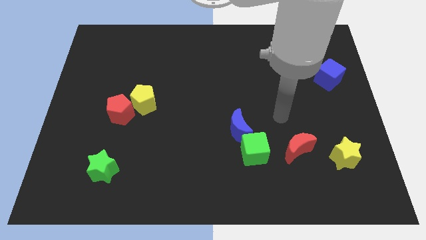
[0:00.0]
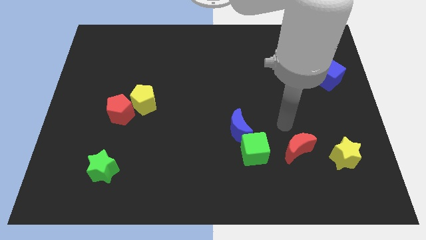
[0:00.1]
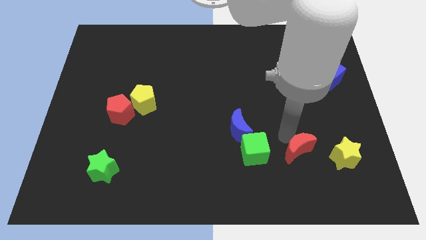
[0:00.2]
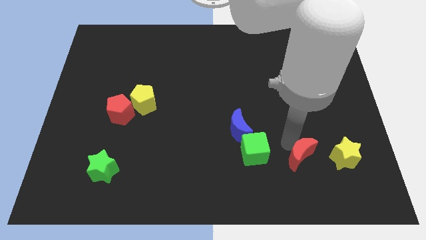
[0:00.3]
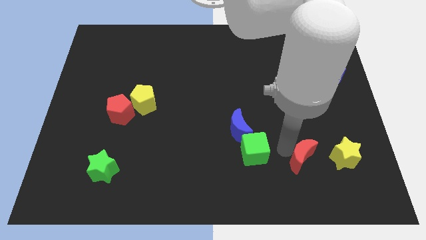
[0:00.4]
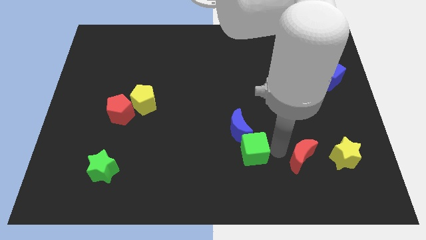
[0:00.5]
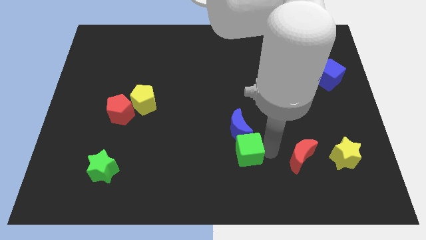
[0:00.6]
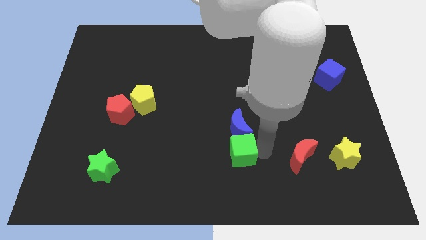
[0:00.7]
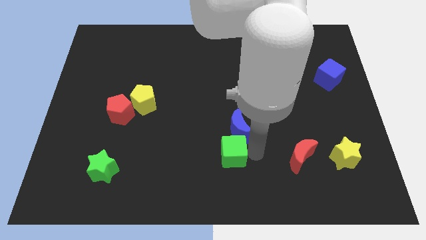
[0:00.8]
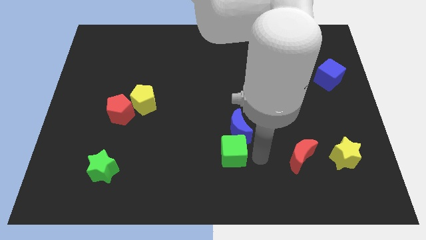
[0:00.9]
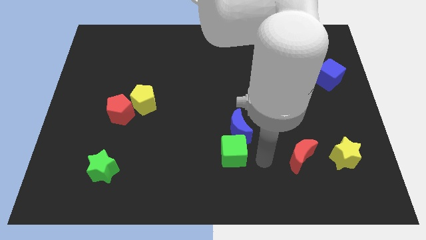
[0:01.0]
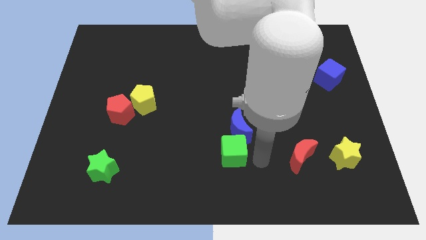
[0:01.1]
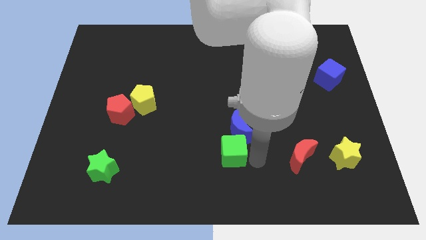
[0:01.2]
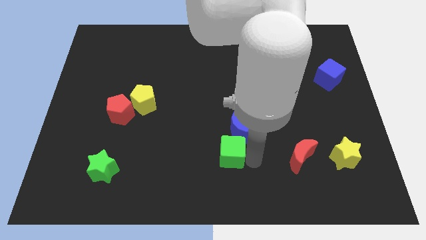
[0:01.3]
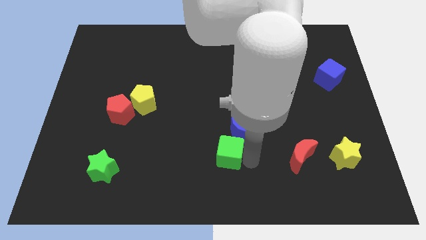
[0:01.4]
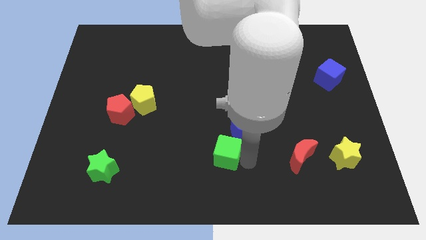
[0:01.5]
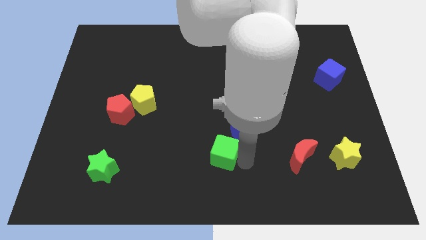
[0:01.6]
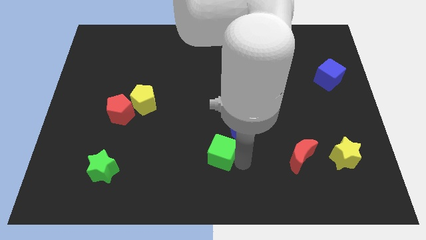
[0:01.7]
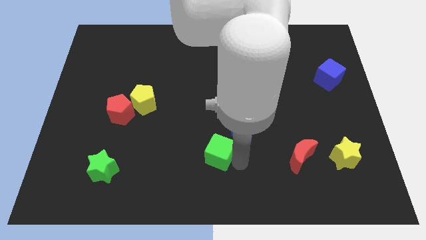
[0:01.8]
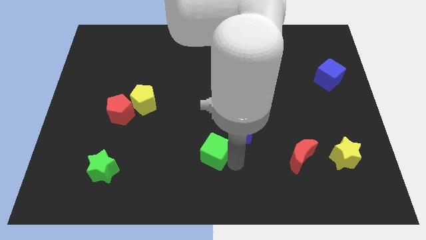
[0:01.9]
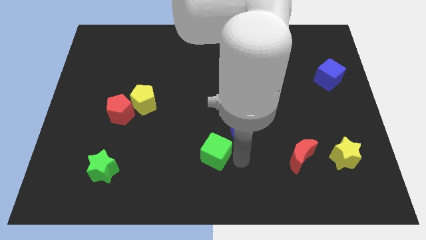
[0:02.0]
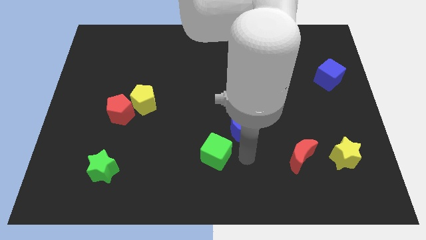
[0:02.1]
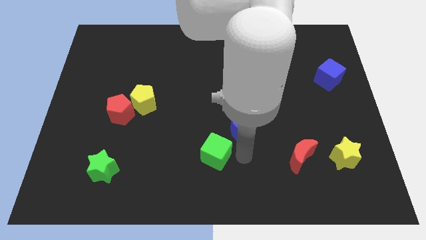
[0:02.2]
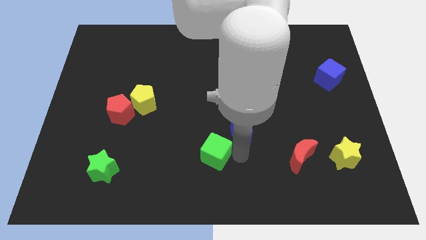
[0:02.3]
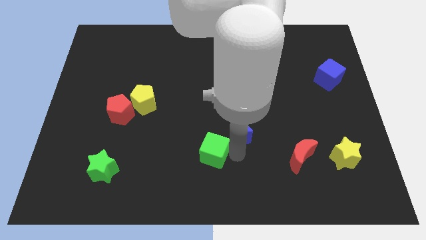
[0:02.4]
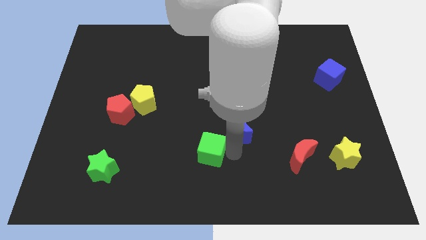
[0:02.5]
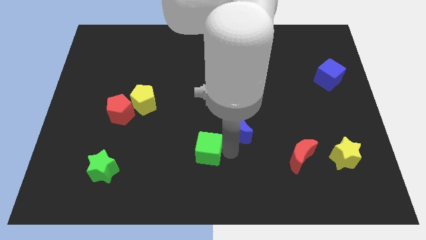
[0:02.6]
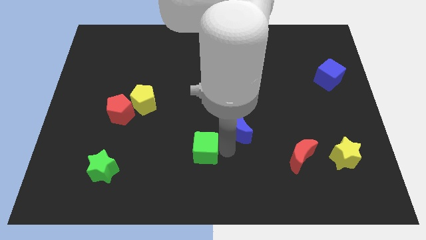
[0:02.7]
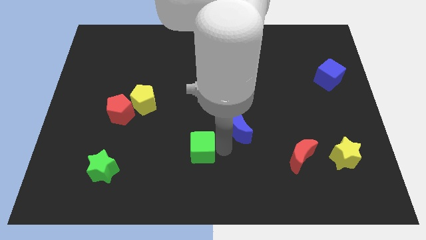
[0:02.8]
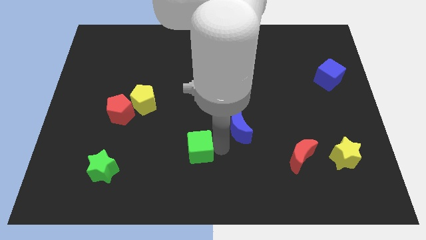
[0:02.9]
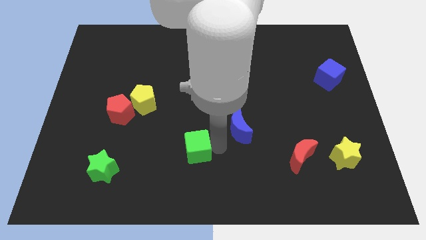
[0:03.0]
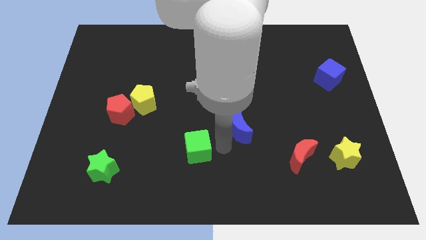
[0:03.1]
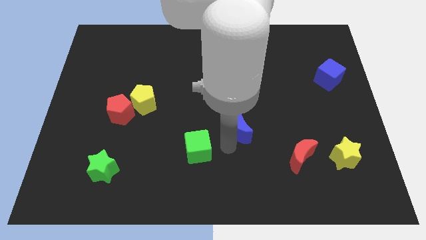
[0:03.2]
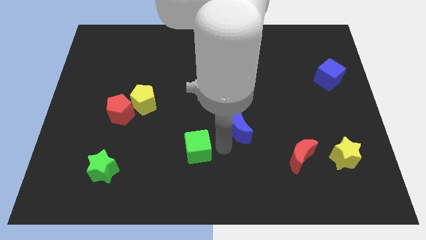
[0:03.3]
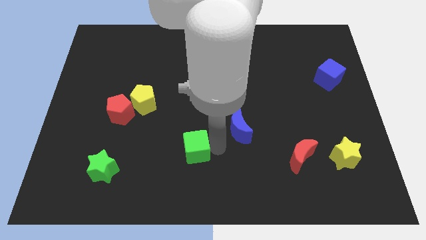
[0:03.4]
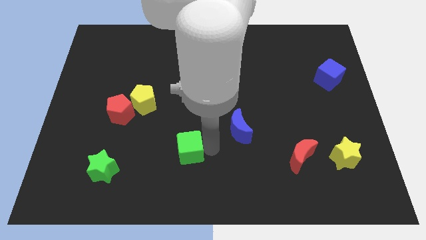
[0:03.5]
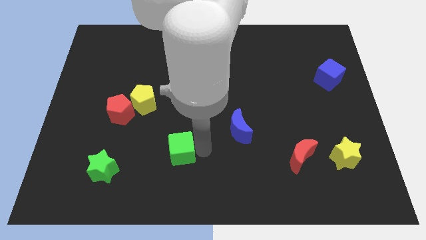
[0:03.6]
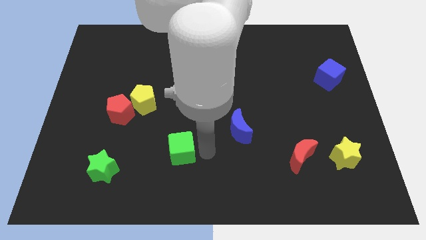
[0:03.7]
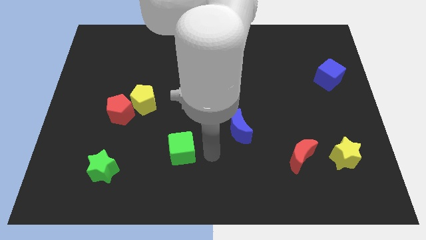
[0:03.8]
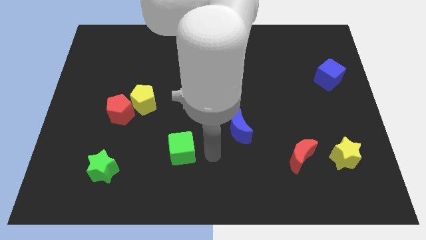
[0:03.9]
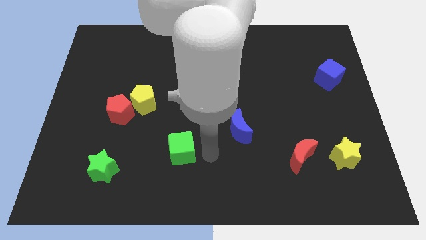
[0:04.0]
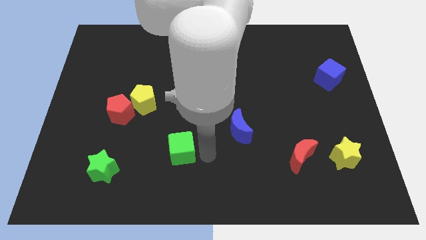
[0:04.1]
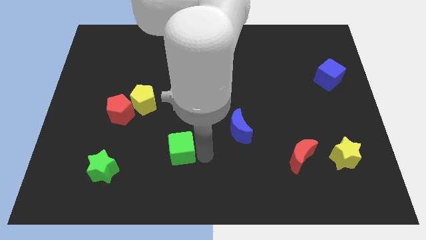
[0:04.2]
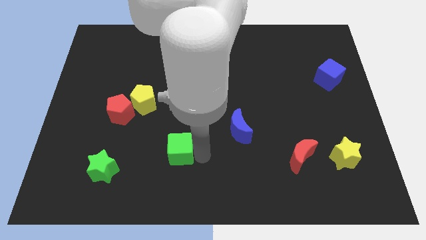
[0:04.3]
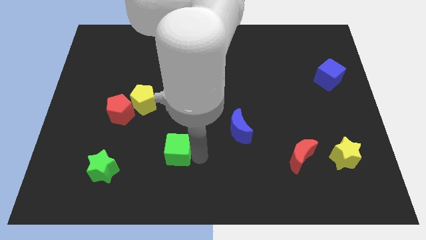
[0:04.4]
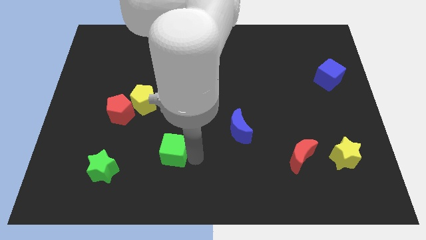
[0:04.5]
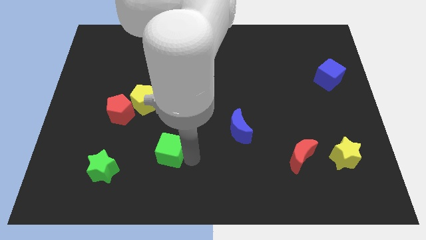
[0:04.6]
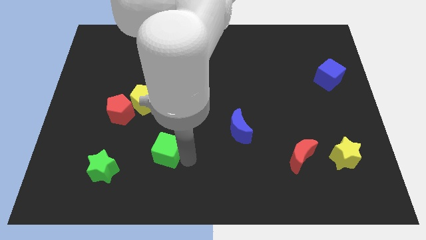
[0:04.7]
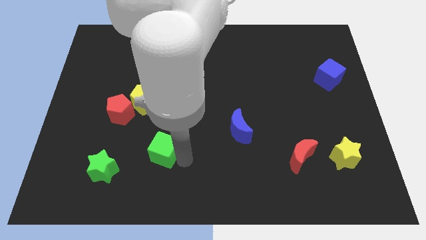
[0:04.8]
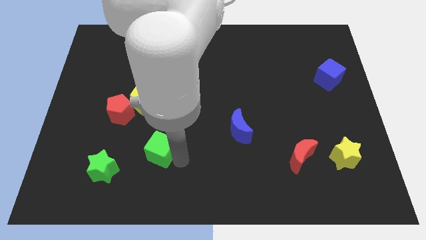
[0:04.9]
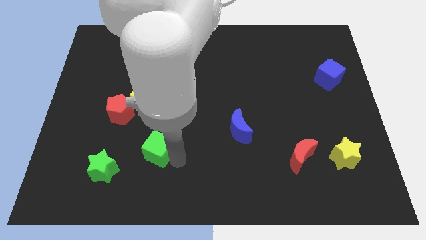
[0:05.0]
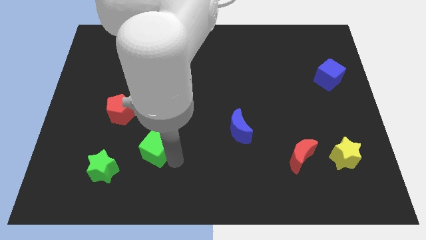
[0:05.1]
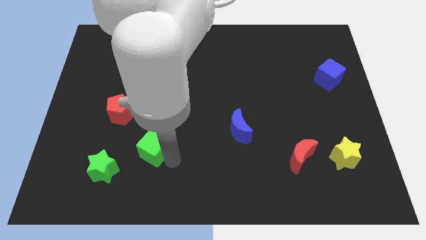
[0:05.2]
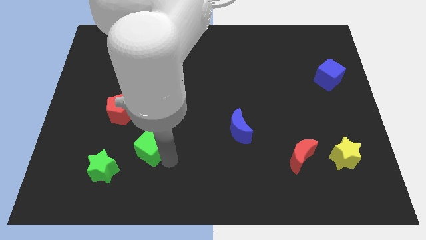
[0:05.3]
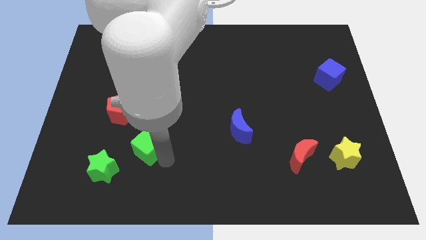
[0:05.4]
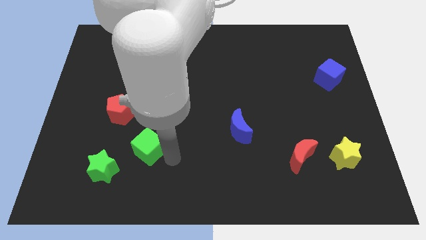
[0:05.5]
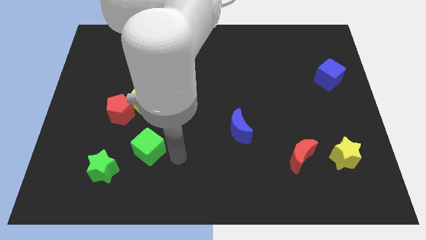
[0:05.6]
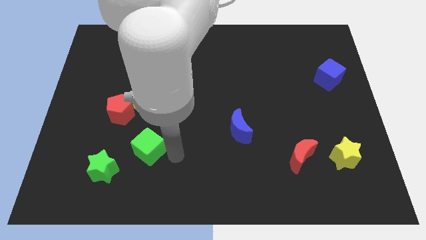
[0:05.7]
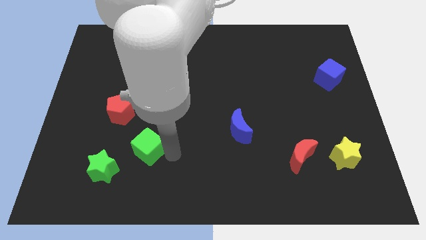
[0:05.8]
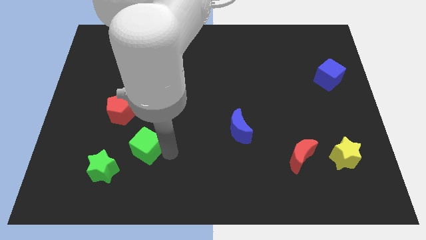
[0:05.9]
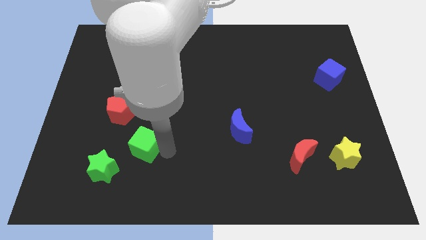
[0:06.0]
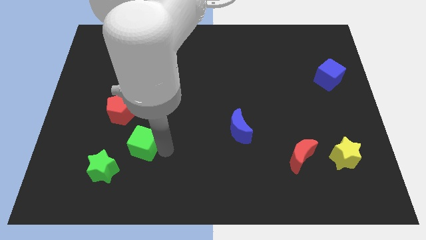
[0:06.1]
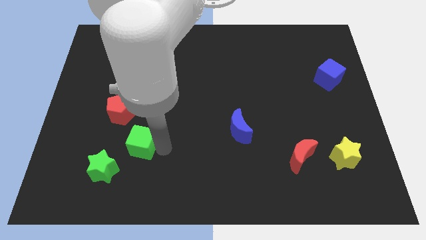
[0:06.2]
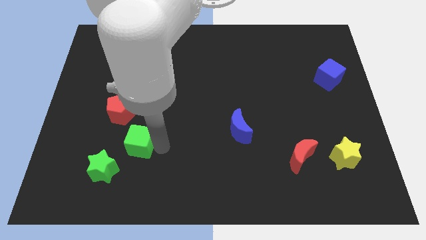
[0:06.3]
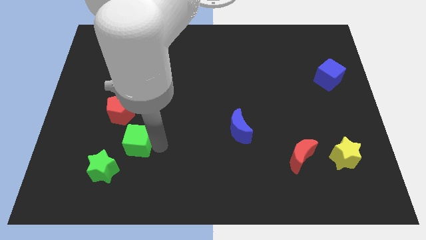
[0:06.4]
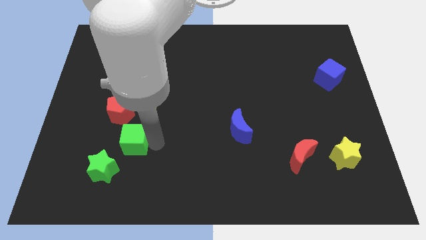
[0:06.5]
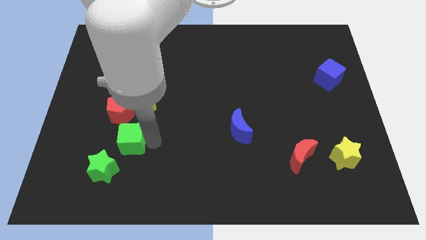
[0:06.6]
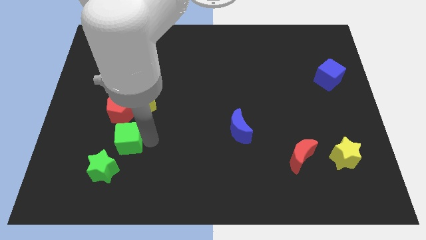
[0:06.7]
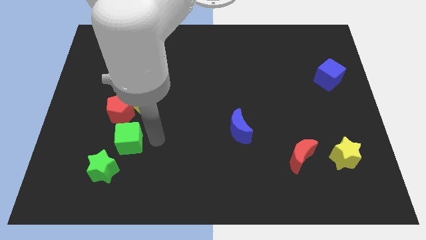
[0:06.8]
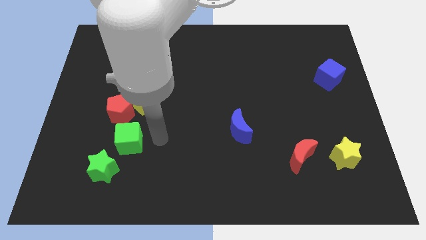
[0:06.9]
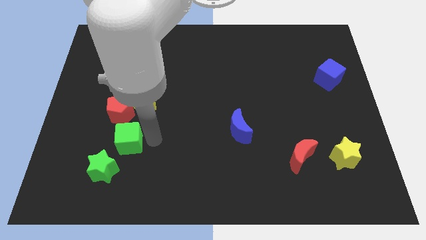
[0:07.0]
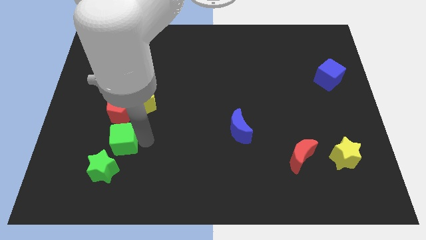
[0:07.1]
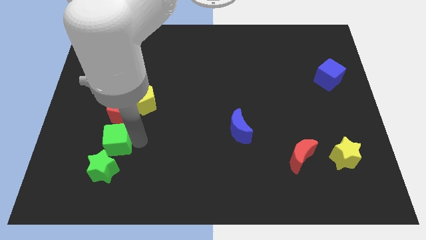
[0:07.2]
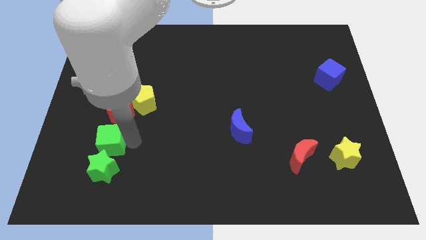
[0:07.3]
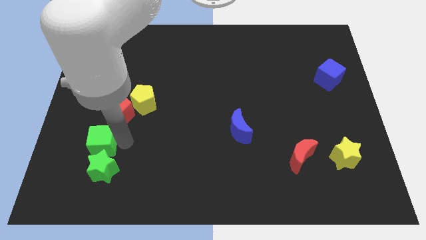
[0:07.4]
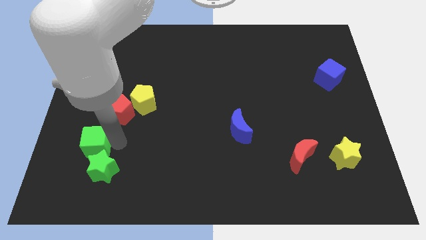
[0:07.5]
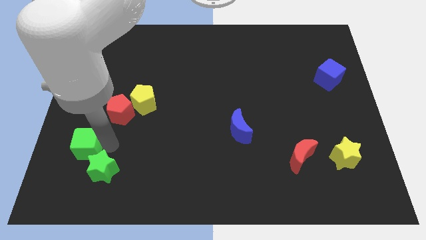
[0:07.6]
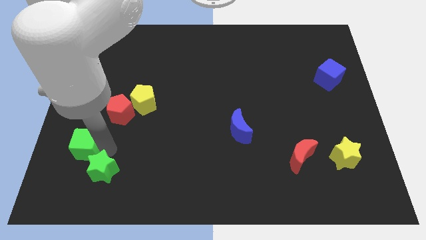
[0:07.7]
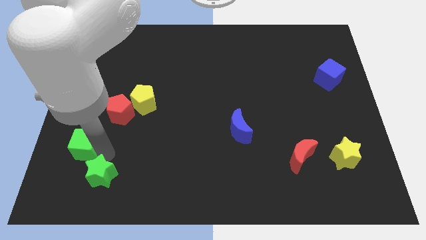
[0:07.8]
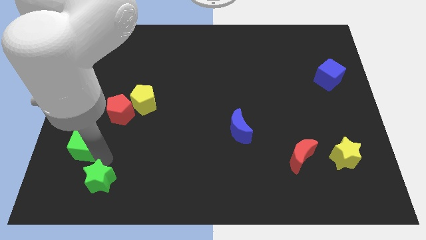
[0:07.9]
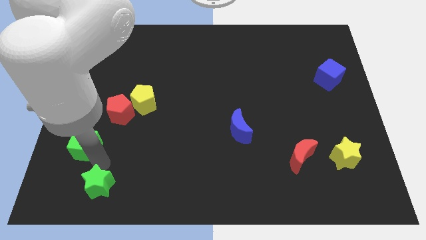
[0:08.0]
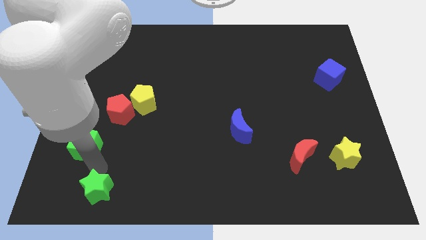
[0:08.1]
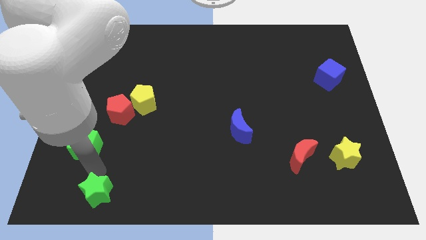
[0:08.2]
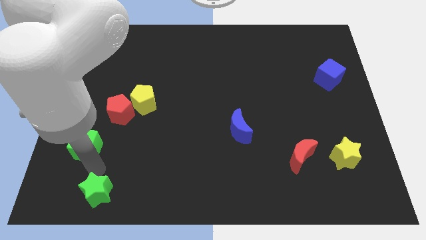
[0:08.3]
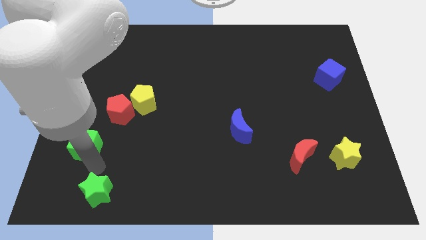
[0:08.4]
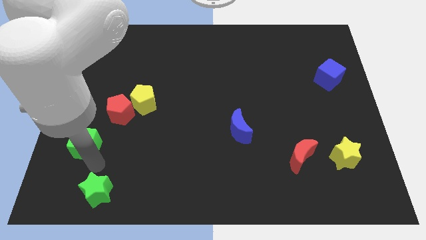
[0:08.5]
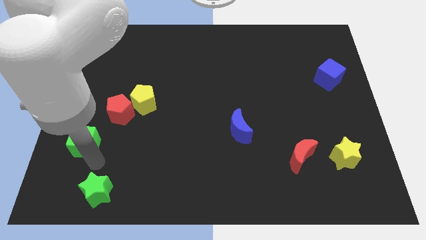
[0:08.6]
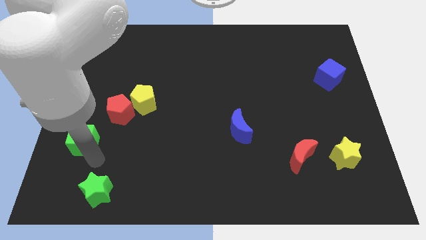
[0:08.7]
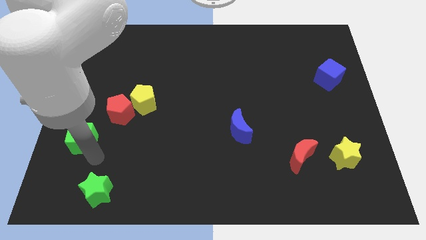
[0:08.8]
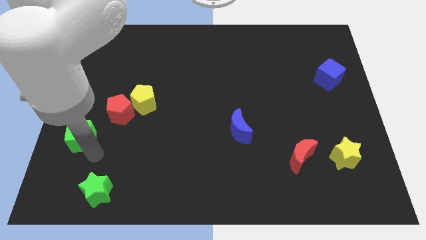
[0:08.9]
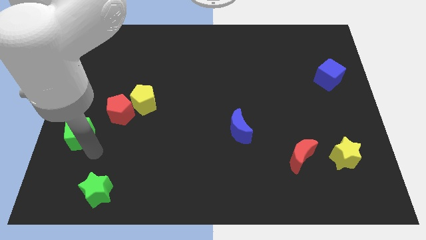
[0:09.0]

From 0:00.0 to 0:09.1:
move the green cube to the left side of the board
